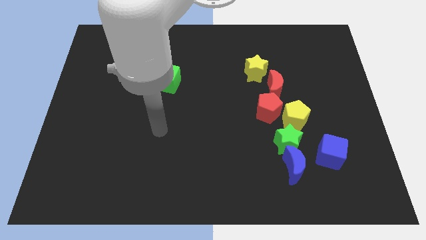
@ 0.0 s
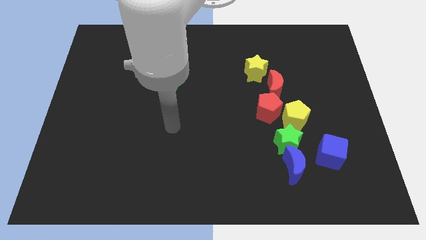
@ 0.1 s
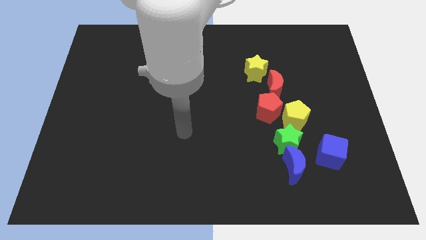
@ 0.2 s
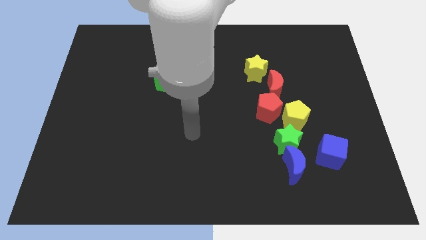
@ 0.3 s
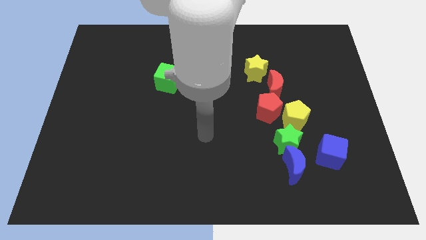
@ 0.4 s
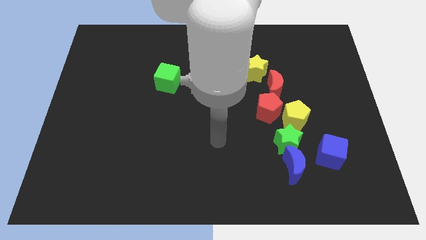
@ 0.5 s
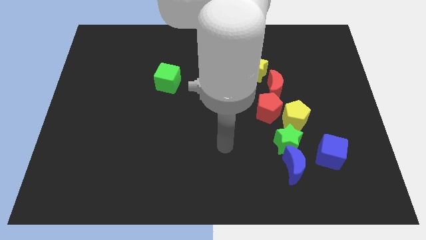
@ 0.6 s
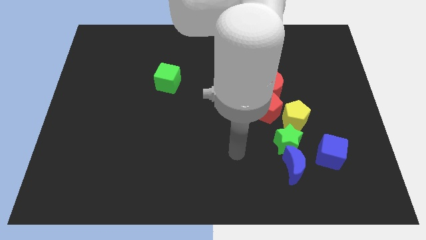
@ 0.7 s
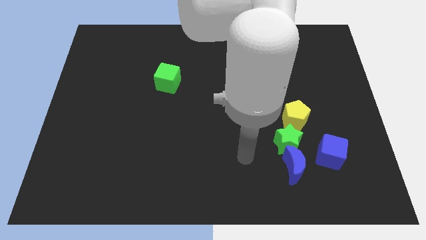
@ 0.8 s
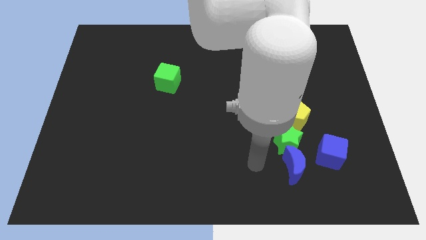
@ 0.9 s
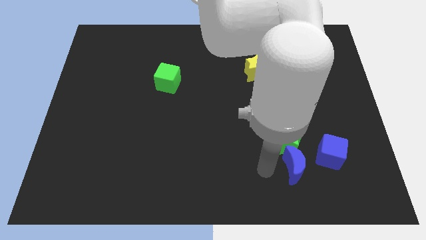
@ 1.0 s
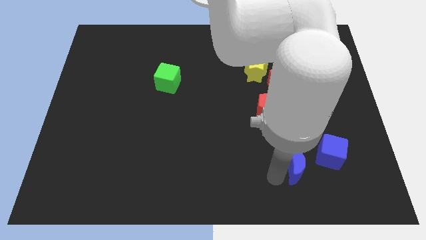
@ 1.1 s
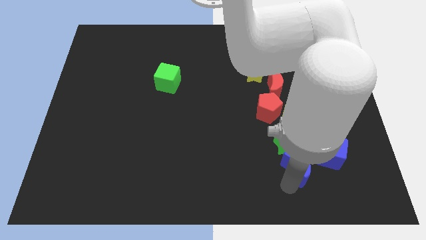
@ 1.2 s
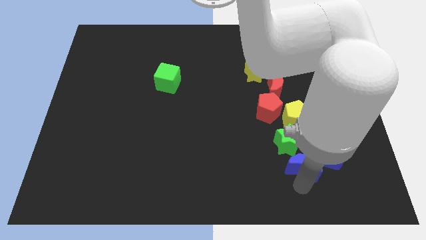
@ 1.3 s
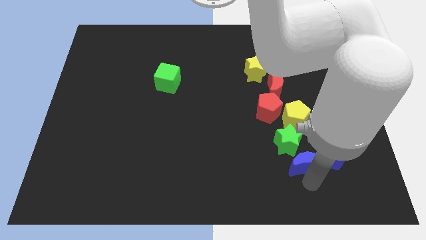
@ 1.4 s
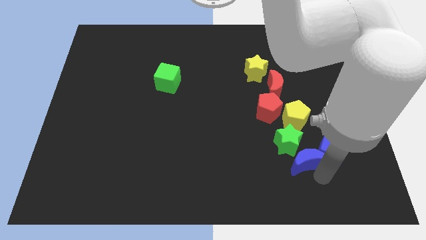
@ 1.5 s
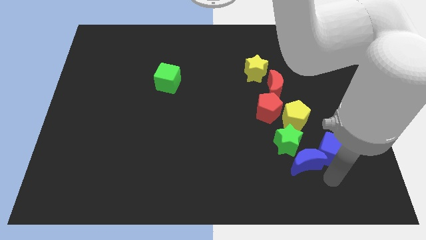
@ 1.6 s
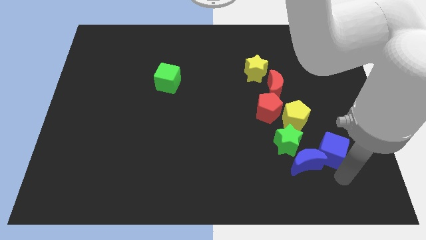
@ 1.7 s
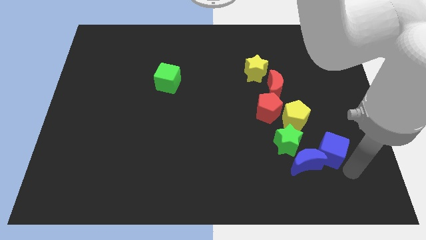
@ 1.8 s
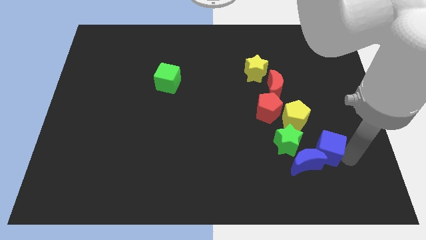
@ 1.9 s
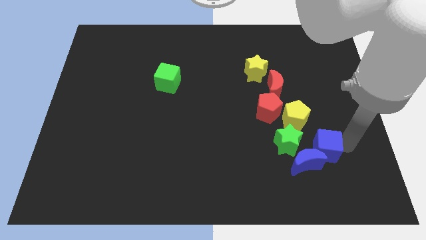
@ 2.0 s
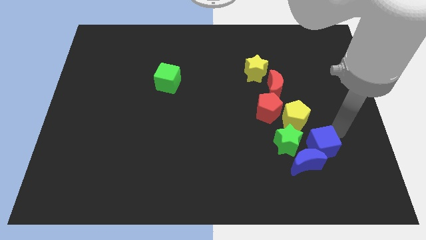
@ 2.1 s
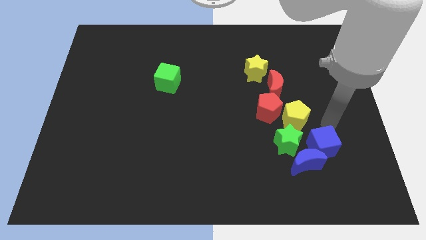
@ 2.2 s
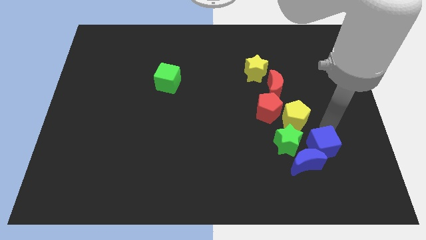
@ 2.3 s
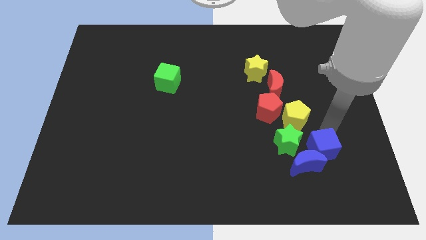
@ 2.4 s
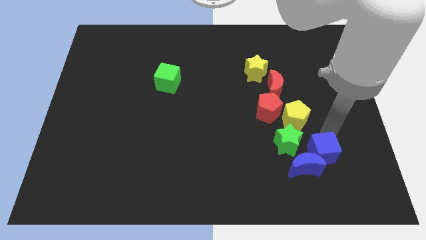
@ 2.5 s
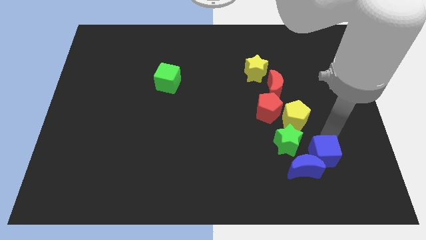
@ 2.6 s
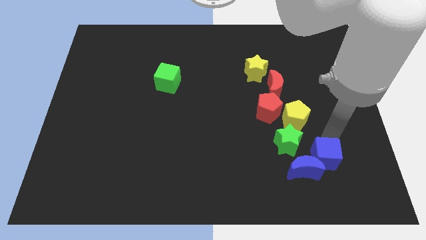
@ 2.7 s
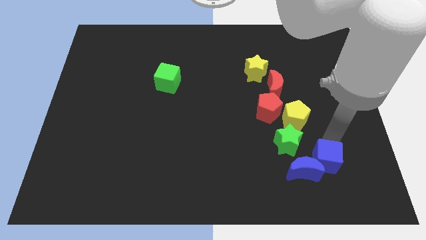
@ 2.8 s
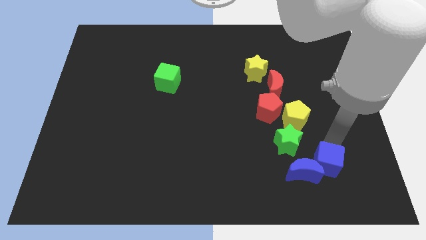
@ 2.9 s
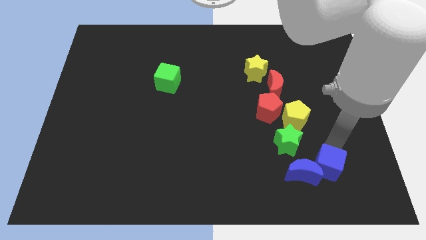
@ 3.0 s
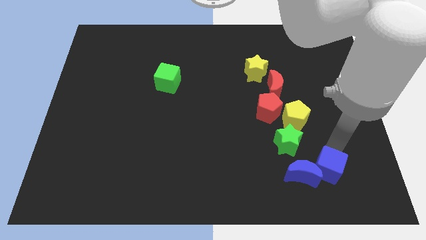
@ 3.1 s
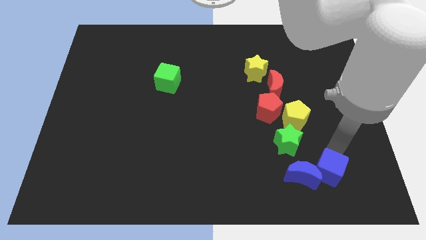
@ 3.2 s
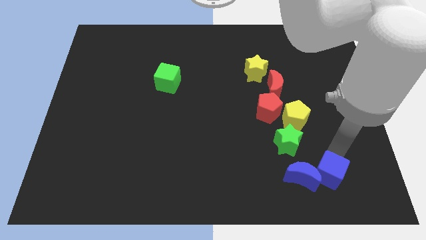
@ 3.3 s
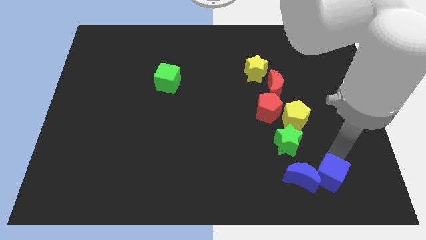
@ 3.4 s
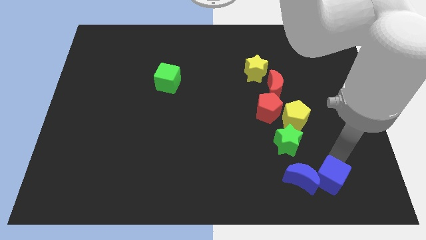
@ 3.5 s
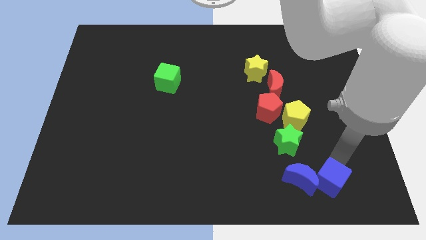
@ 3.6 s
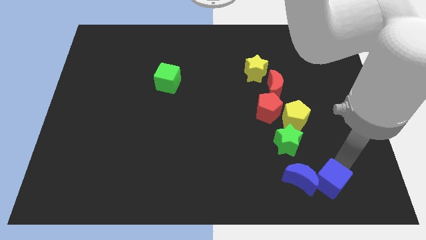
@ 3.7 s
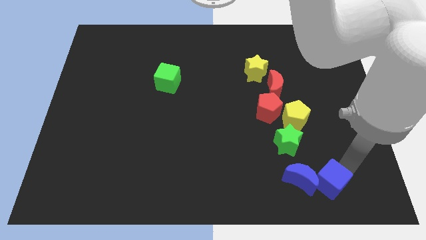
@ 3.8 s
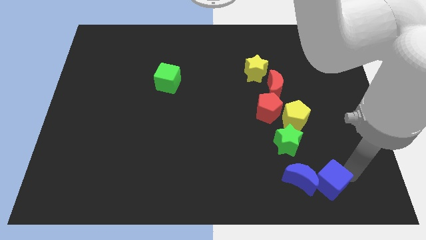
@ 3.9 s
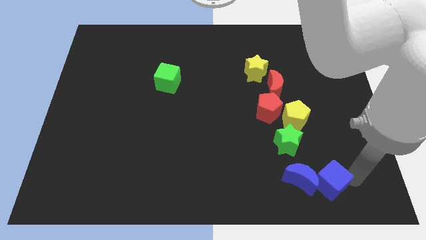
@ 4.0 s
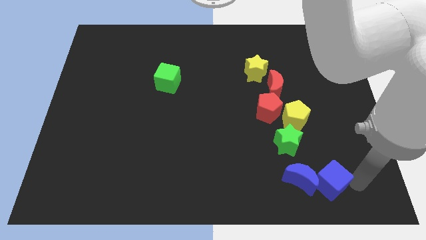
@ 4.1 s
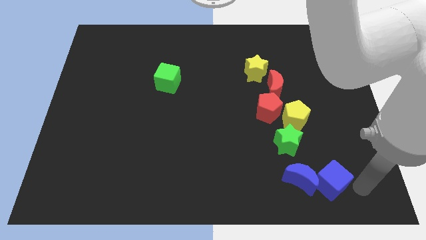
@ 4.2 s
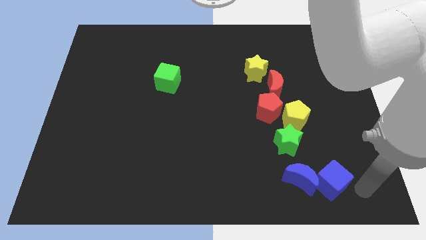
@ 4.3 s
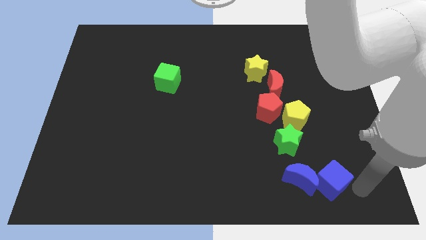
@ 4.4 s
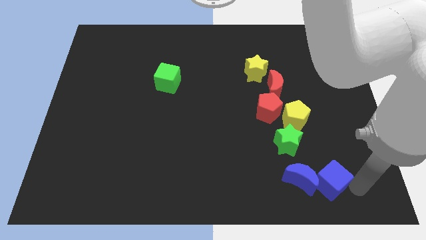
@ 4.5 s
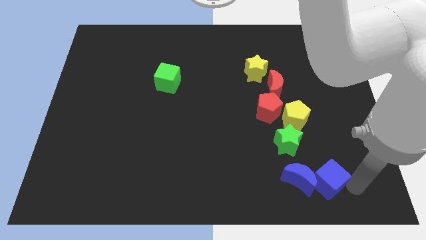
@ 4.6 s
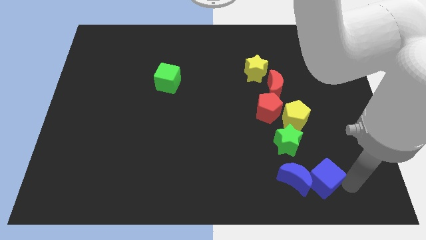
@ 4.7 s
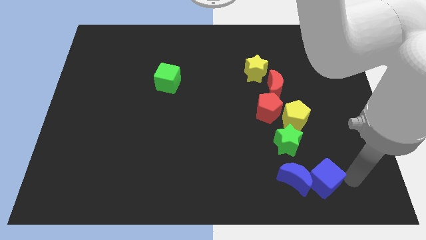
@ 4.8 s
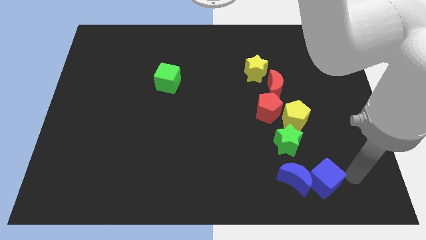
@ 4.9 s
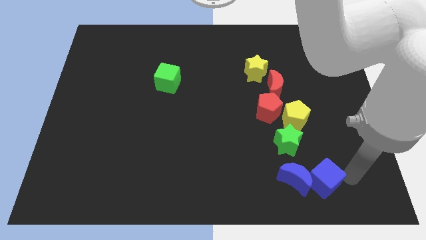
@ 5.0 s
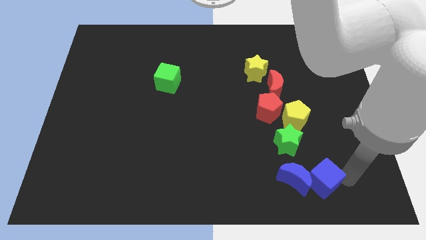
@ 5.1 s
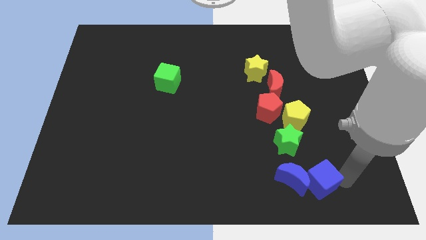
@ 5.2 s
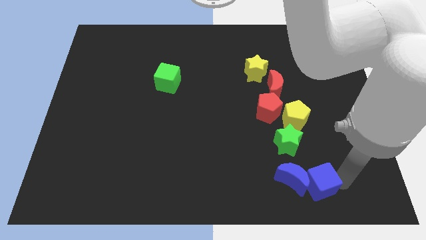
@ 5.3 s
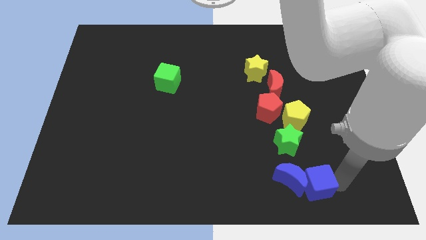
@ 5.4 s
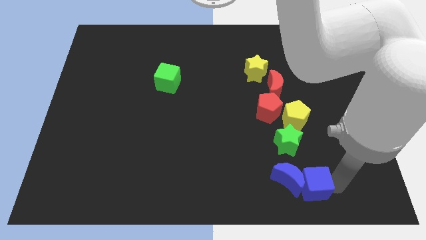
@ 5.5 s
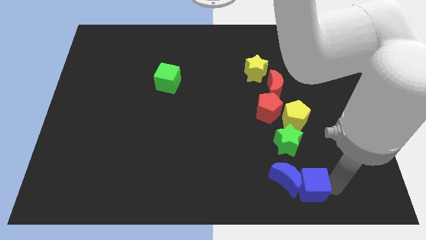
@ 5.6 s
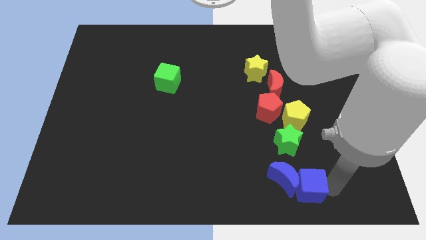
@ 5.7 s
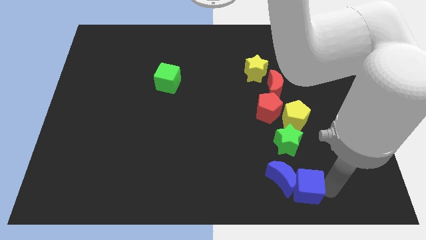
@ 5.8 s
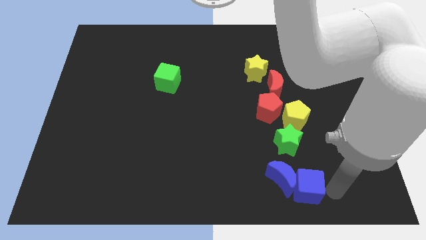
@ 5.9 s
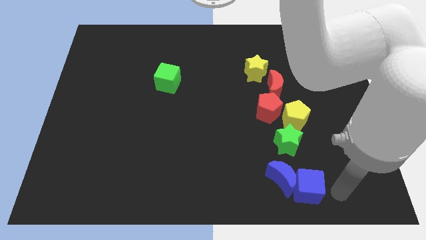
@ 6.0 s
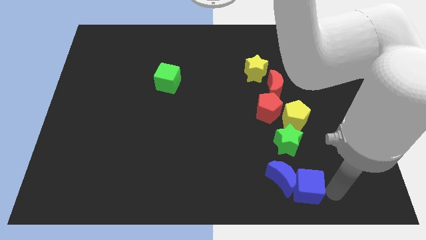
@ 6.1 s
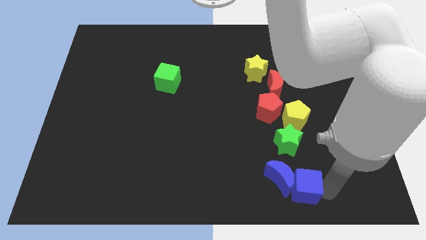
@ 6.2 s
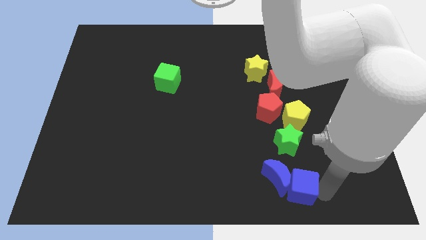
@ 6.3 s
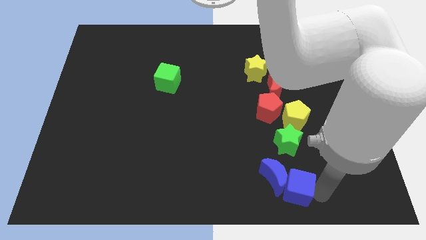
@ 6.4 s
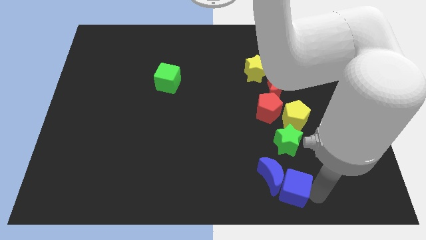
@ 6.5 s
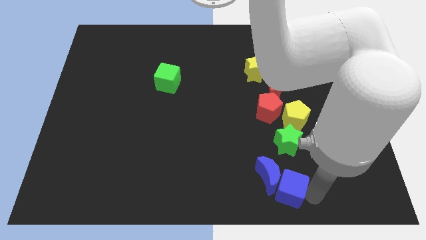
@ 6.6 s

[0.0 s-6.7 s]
slightly push the blue cube left

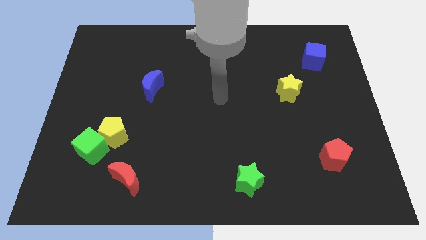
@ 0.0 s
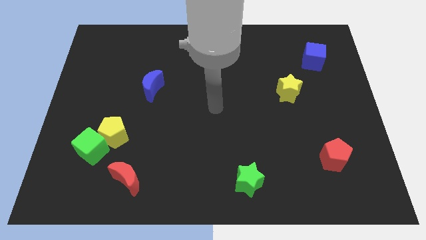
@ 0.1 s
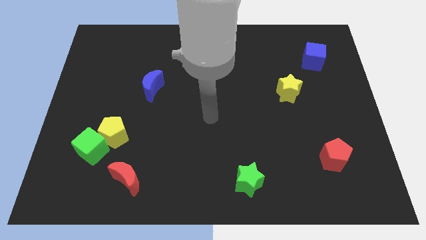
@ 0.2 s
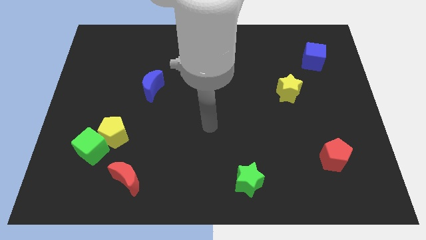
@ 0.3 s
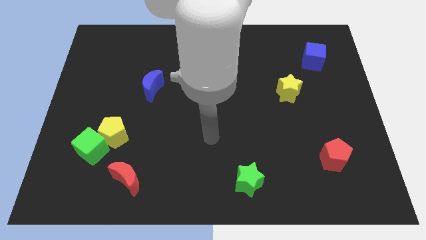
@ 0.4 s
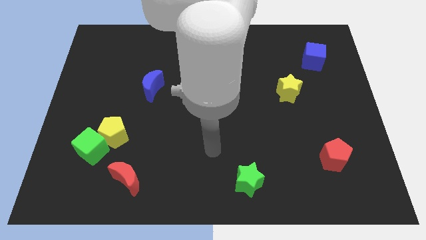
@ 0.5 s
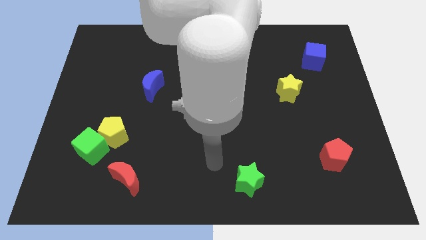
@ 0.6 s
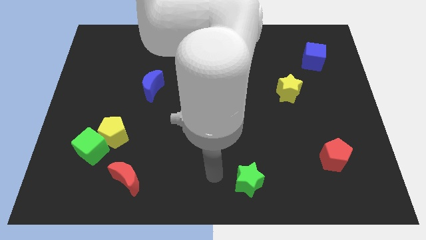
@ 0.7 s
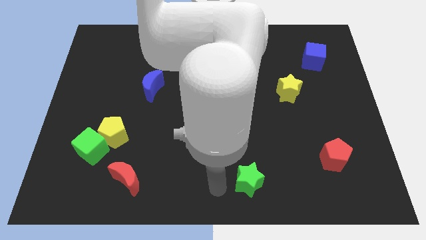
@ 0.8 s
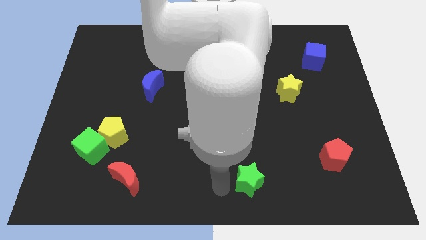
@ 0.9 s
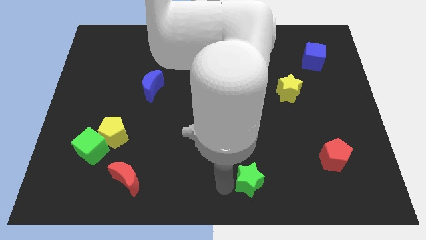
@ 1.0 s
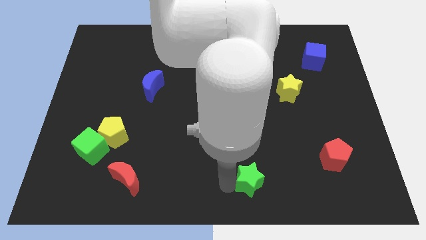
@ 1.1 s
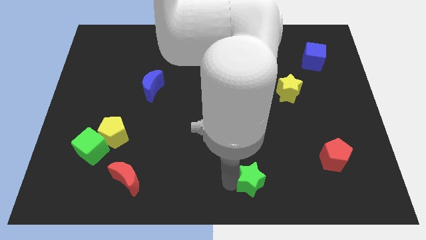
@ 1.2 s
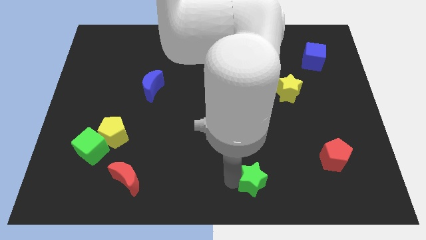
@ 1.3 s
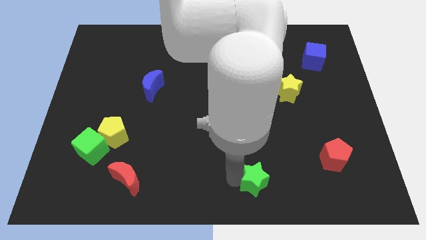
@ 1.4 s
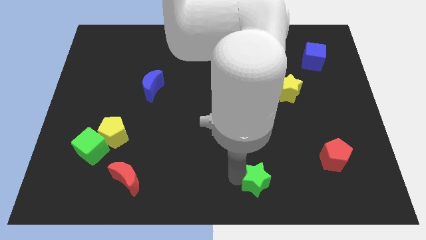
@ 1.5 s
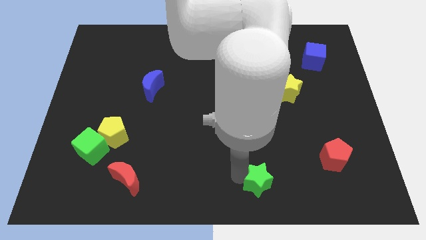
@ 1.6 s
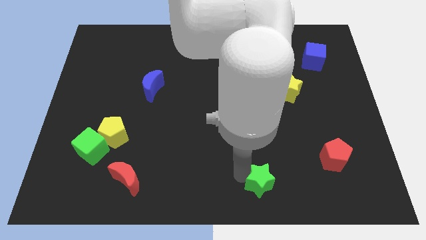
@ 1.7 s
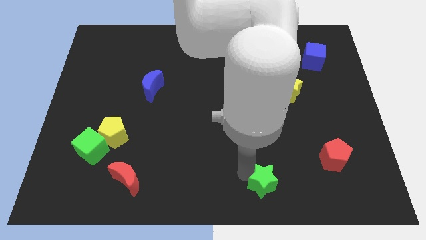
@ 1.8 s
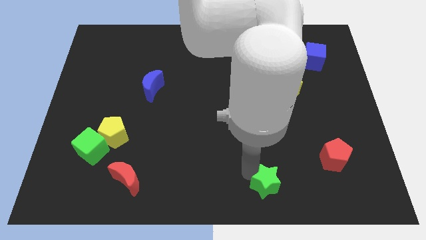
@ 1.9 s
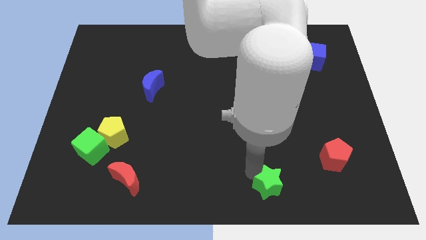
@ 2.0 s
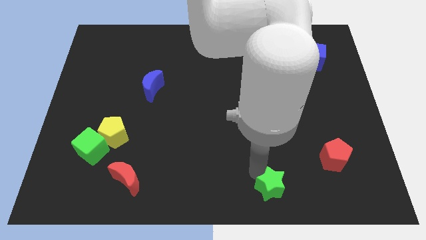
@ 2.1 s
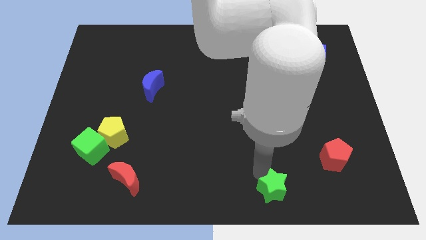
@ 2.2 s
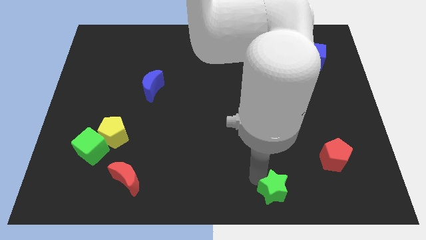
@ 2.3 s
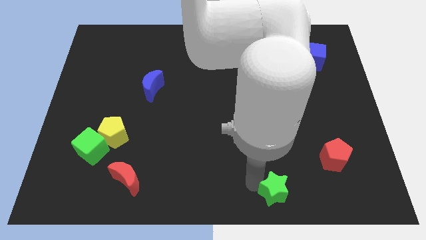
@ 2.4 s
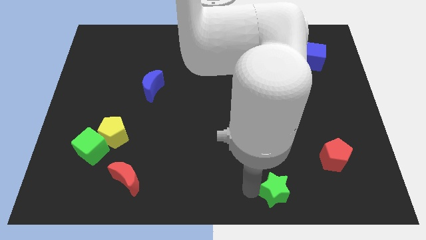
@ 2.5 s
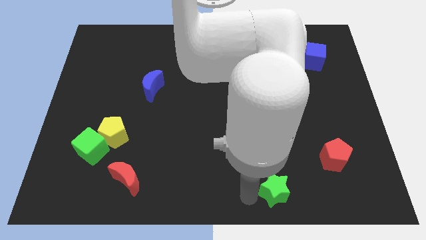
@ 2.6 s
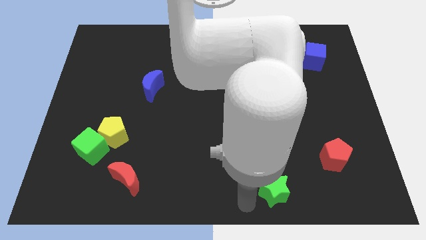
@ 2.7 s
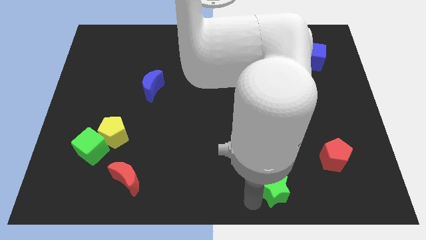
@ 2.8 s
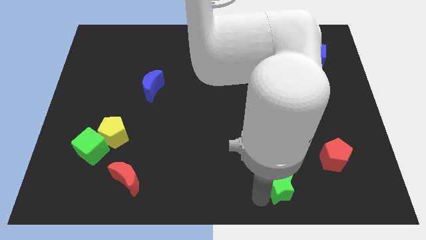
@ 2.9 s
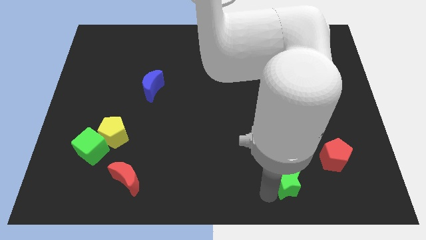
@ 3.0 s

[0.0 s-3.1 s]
slightly move the green star to the right
